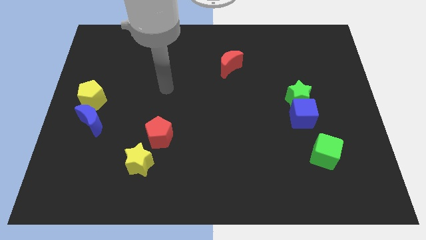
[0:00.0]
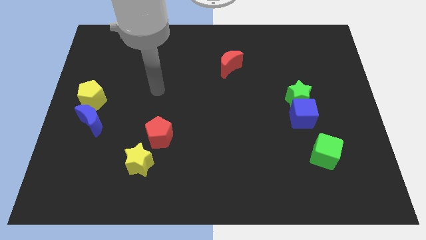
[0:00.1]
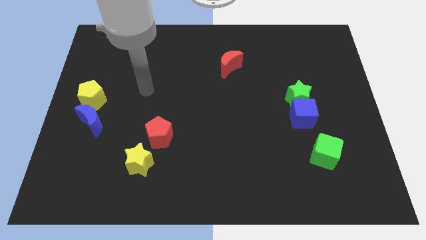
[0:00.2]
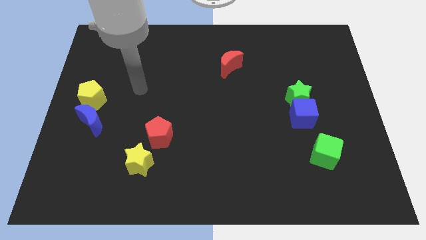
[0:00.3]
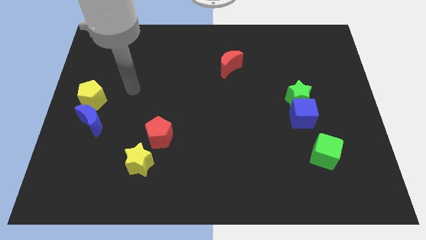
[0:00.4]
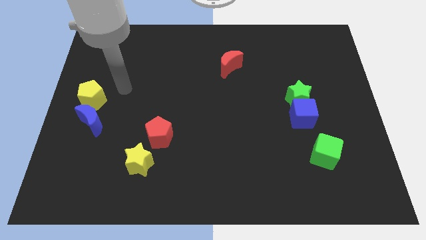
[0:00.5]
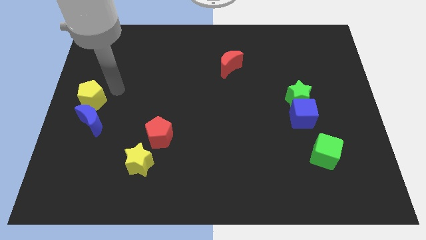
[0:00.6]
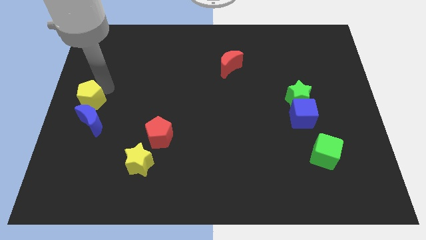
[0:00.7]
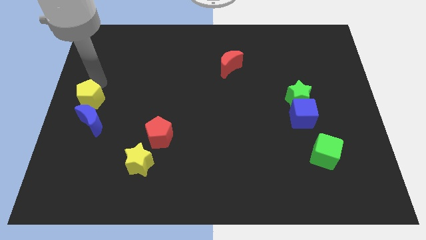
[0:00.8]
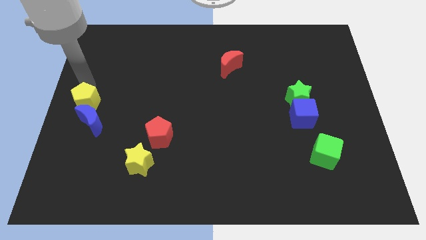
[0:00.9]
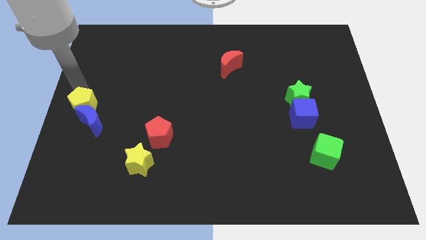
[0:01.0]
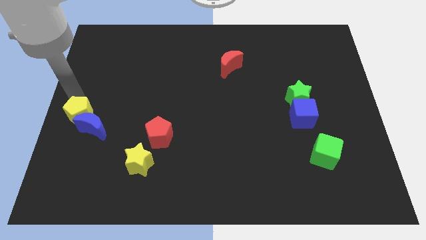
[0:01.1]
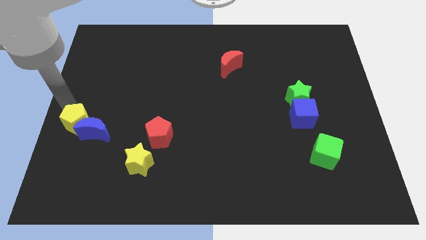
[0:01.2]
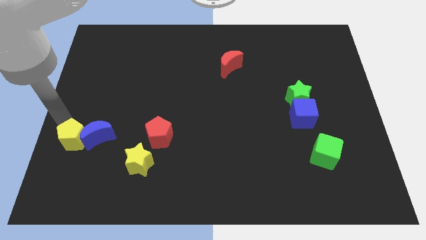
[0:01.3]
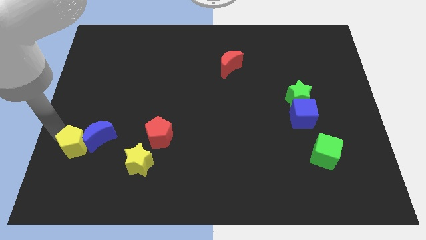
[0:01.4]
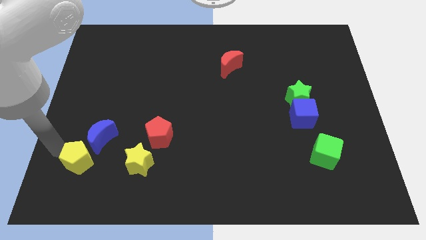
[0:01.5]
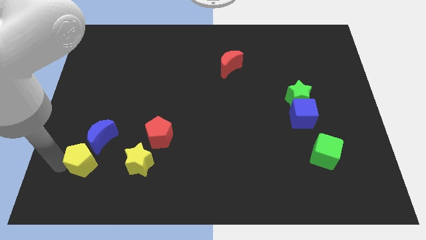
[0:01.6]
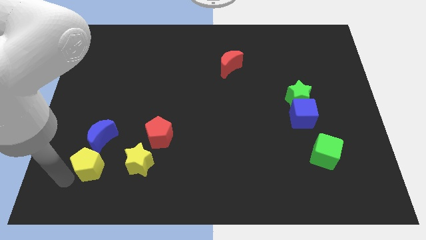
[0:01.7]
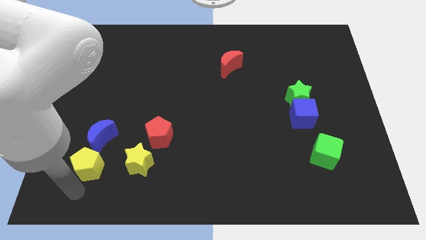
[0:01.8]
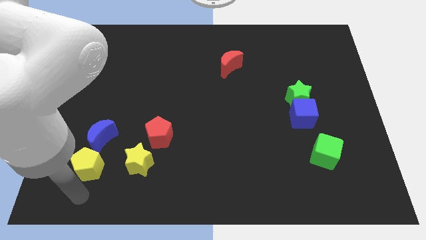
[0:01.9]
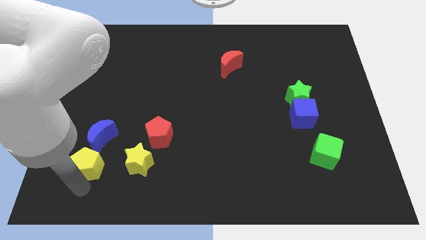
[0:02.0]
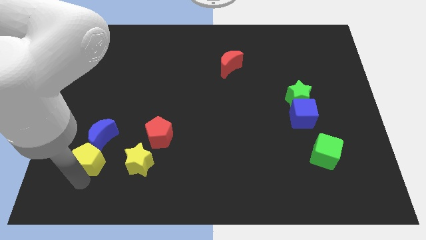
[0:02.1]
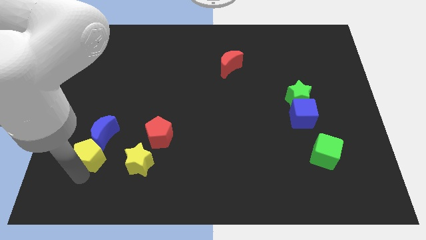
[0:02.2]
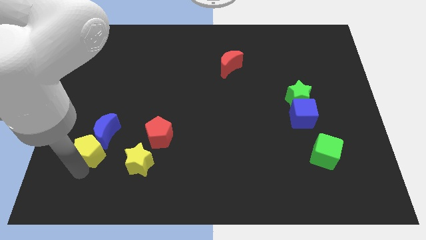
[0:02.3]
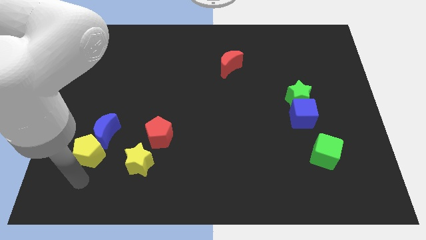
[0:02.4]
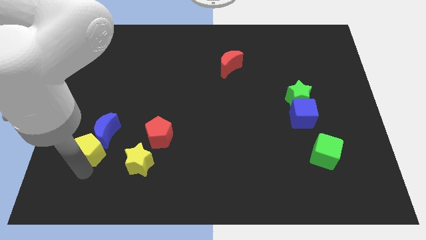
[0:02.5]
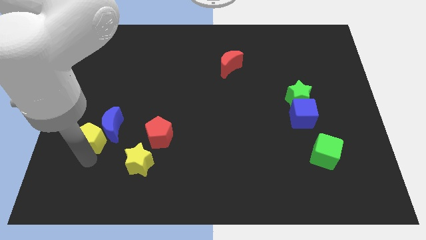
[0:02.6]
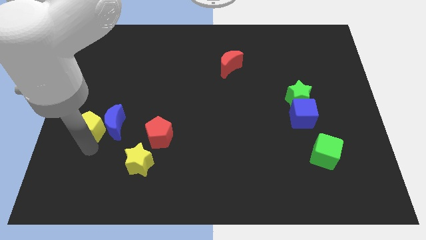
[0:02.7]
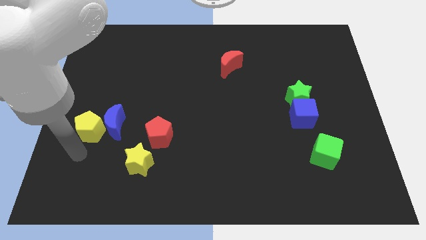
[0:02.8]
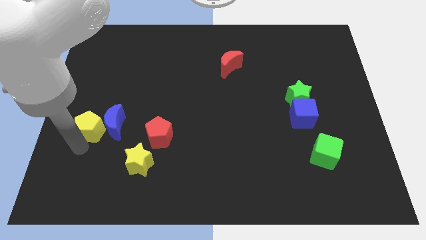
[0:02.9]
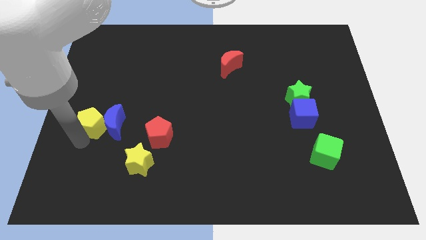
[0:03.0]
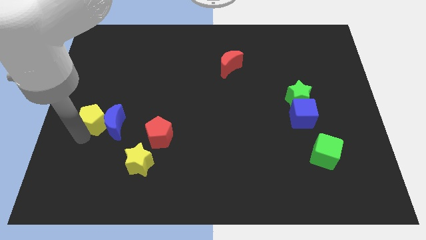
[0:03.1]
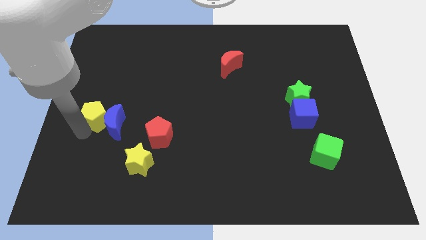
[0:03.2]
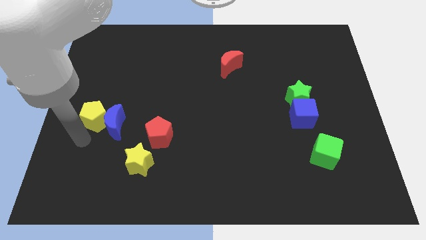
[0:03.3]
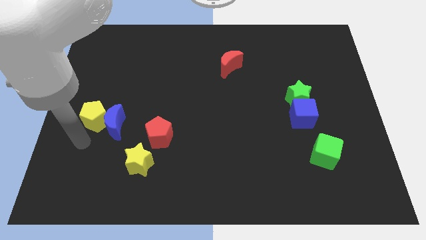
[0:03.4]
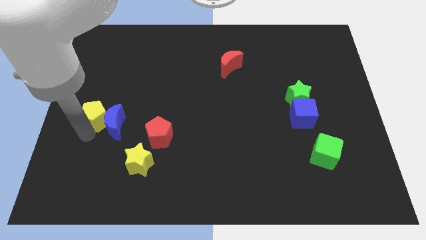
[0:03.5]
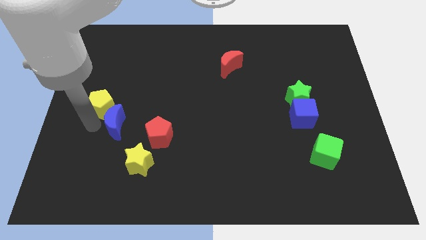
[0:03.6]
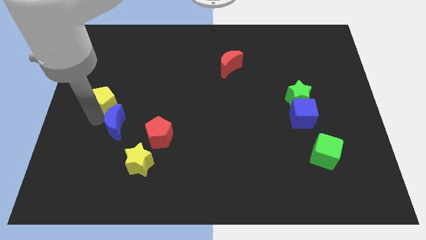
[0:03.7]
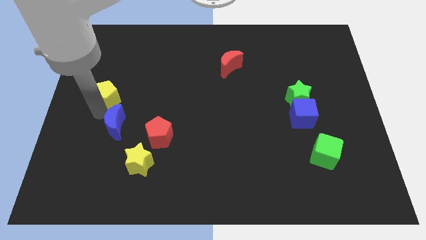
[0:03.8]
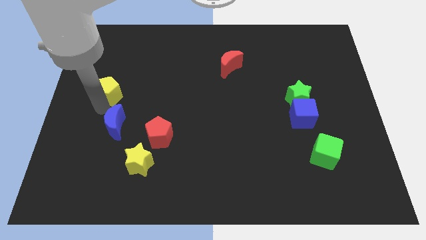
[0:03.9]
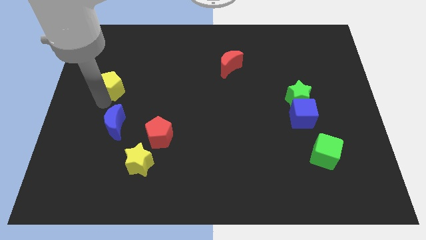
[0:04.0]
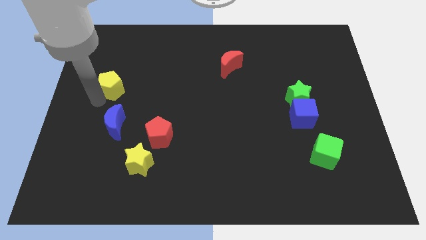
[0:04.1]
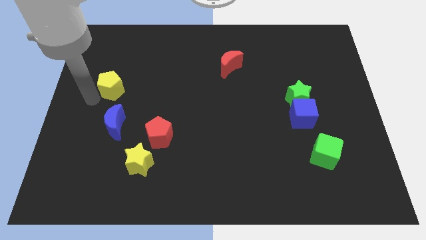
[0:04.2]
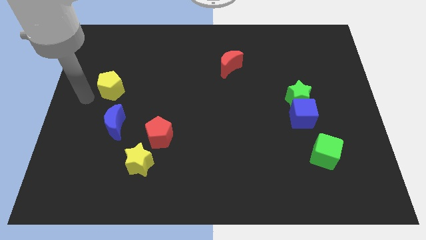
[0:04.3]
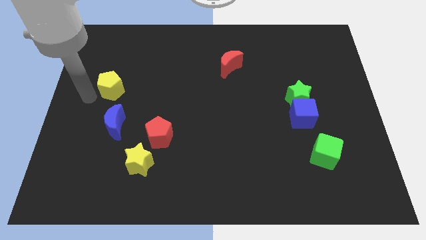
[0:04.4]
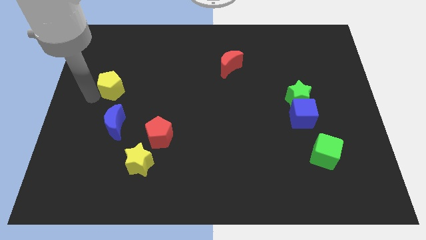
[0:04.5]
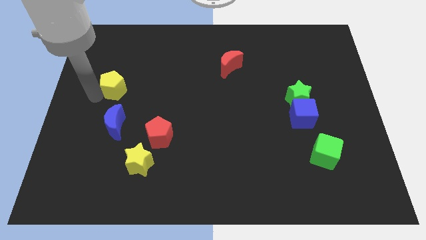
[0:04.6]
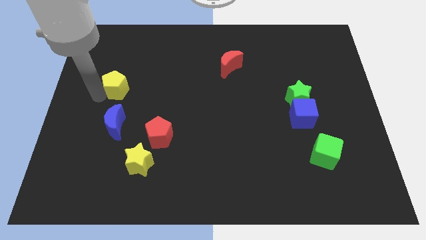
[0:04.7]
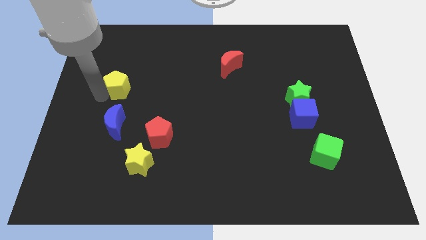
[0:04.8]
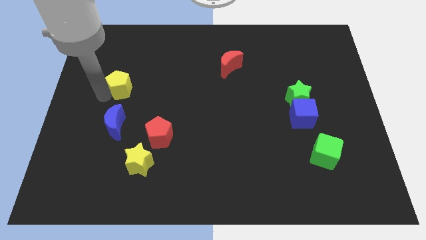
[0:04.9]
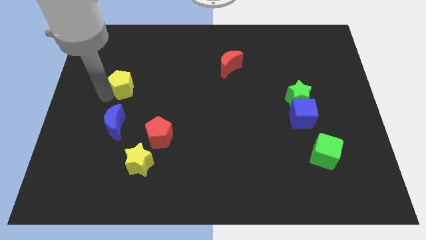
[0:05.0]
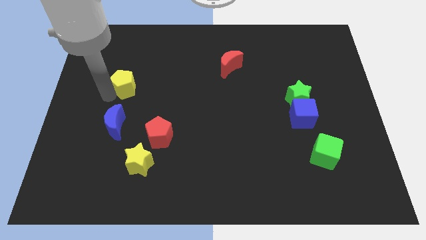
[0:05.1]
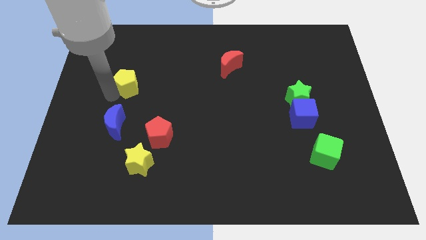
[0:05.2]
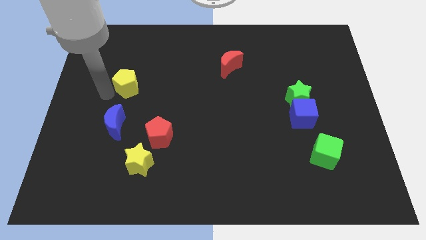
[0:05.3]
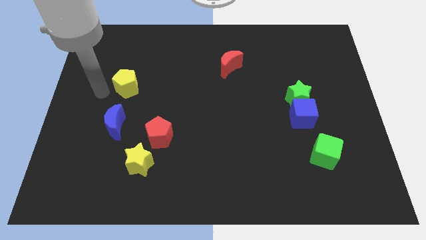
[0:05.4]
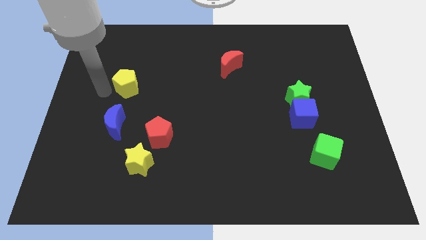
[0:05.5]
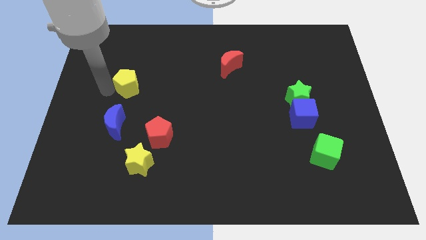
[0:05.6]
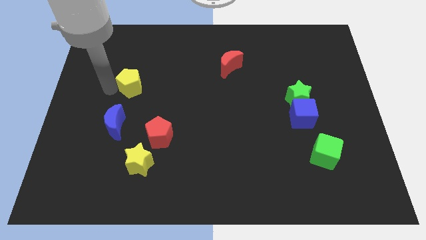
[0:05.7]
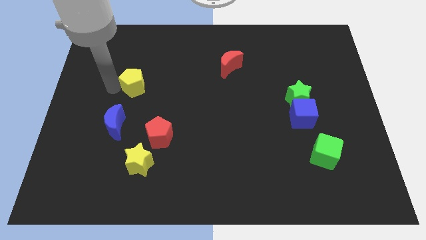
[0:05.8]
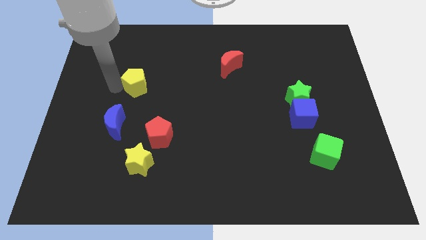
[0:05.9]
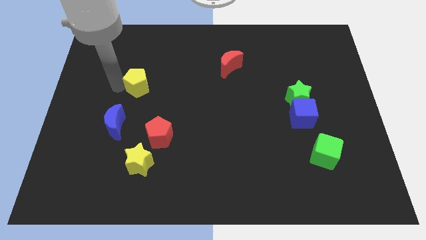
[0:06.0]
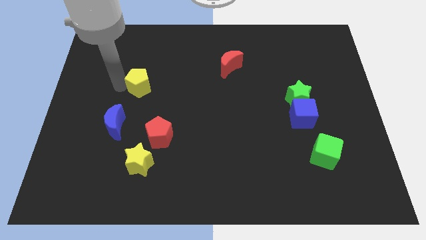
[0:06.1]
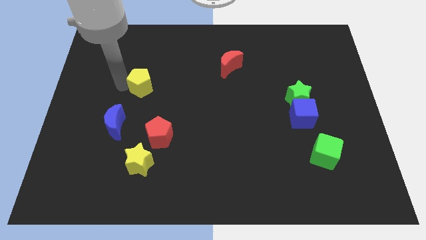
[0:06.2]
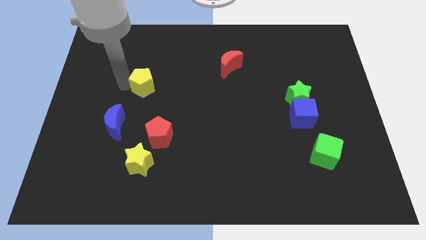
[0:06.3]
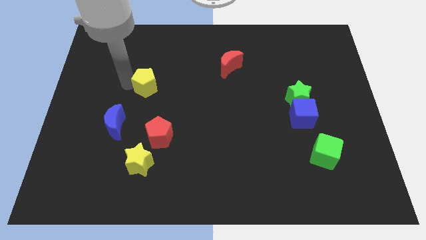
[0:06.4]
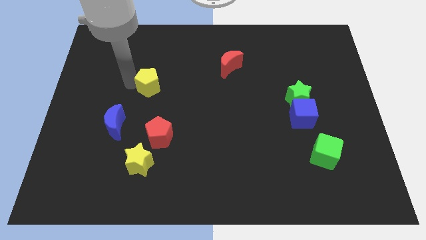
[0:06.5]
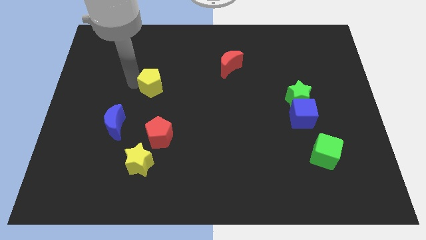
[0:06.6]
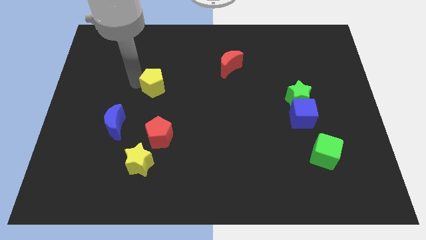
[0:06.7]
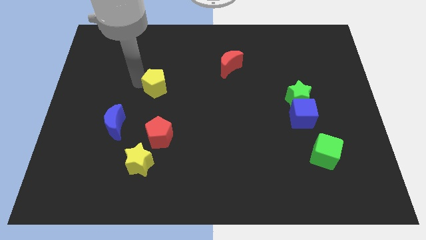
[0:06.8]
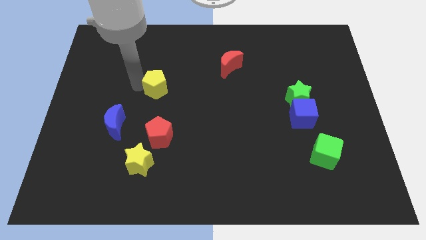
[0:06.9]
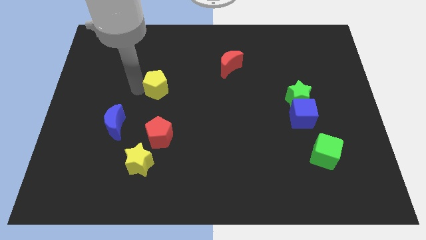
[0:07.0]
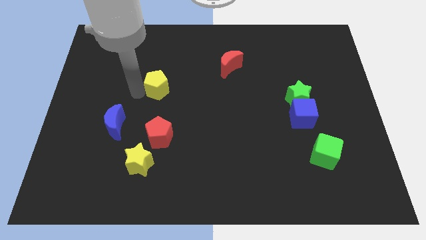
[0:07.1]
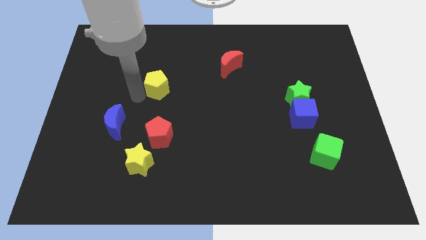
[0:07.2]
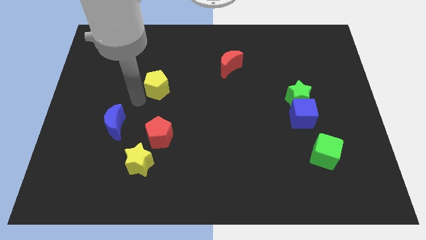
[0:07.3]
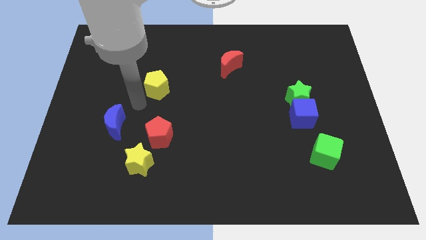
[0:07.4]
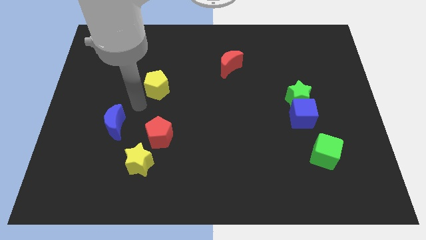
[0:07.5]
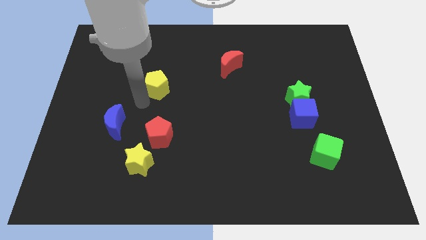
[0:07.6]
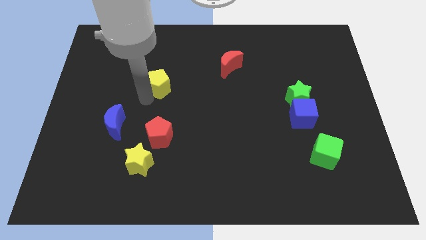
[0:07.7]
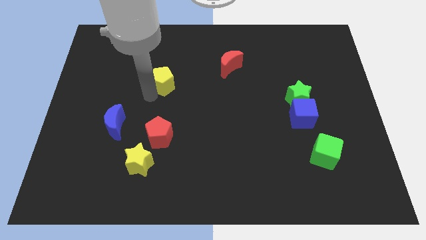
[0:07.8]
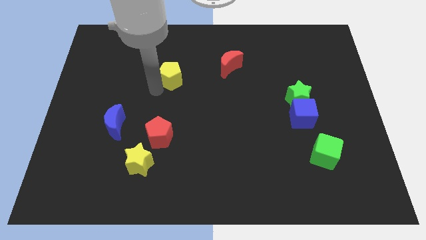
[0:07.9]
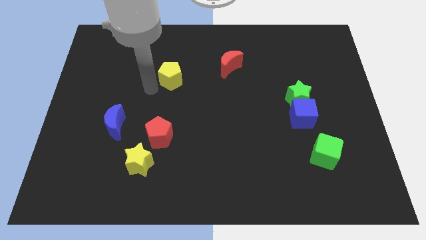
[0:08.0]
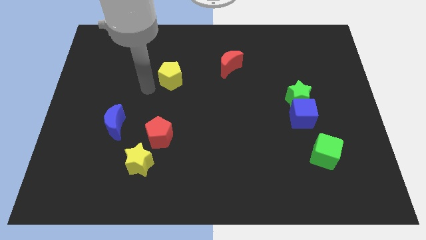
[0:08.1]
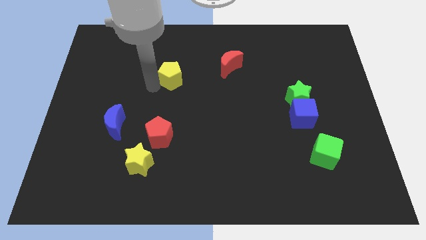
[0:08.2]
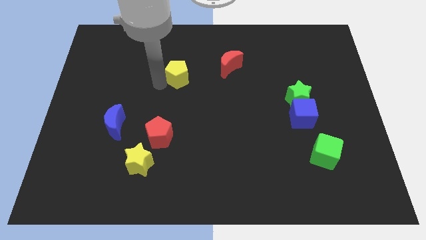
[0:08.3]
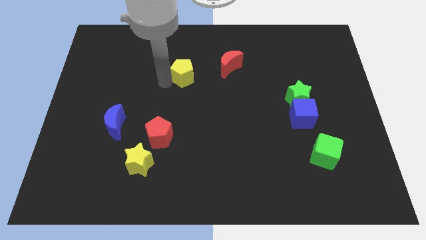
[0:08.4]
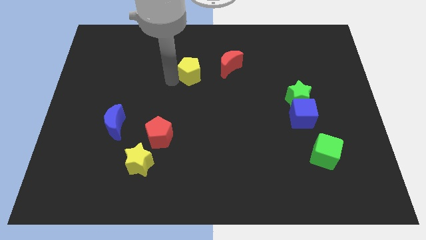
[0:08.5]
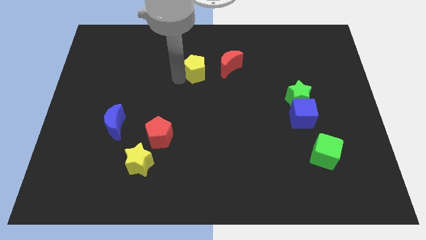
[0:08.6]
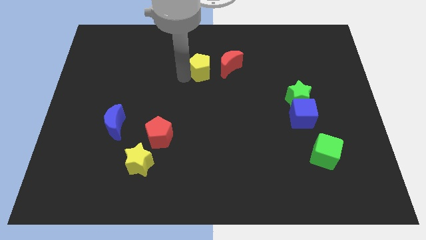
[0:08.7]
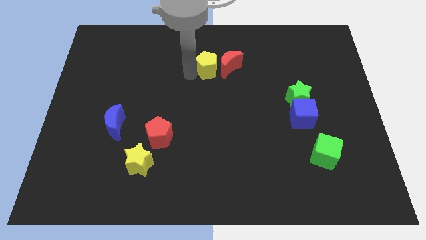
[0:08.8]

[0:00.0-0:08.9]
move the yellow pentagon towards the red moon
